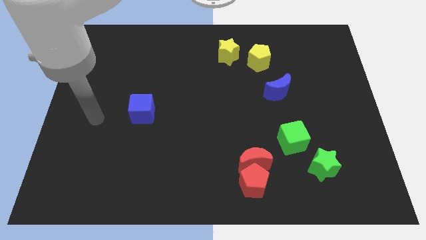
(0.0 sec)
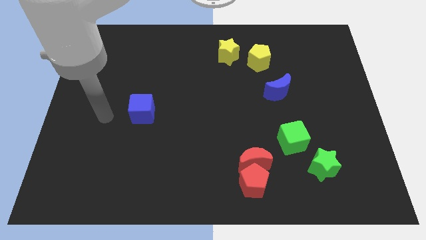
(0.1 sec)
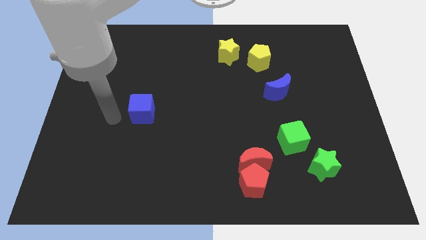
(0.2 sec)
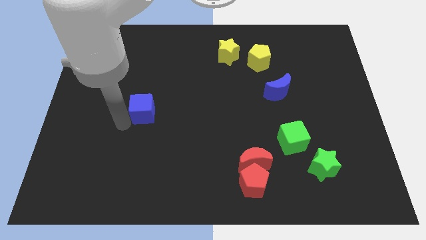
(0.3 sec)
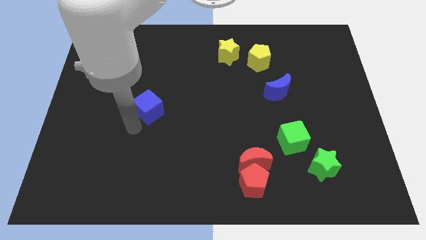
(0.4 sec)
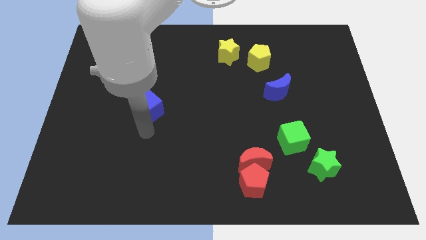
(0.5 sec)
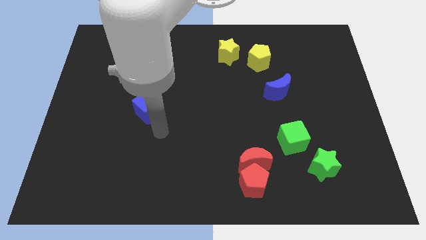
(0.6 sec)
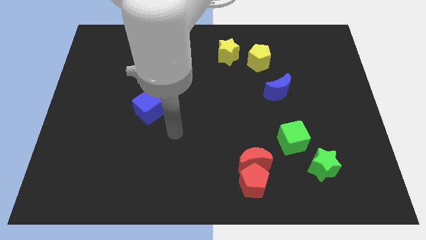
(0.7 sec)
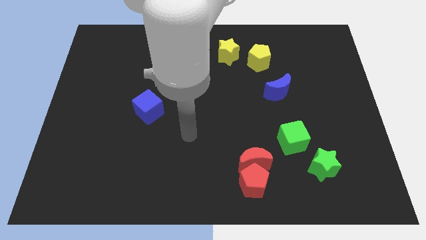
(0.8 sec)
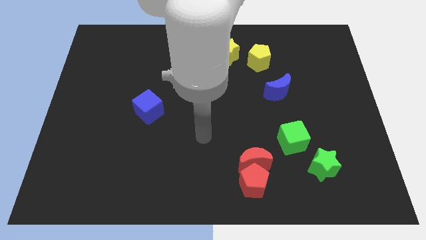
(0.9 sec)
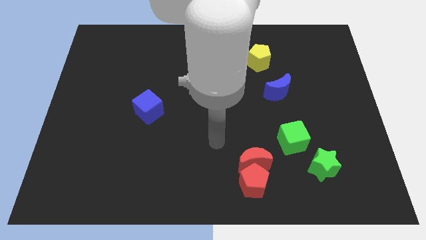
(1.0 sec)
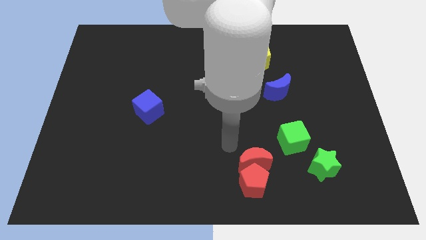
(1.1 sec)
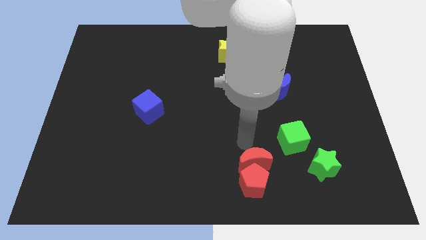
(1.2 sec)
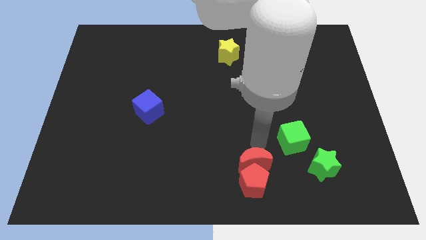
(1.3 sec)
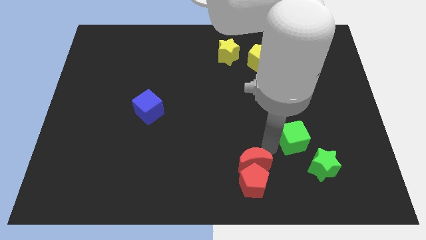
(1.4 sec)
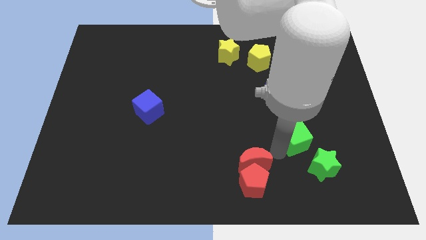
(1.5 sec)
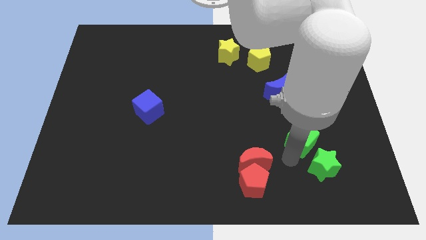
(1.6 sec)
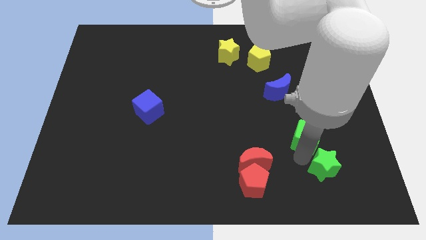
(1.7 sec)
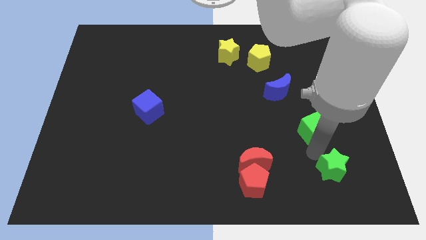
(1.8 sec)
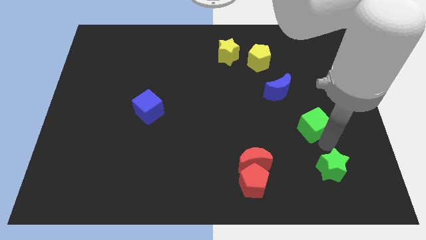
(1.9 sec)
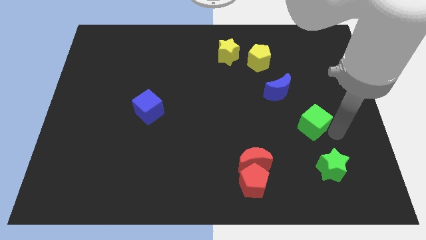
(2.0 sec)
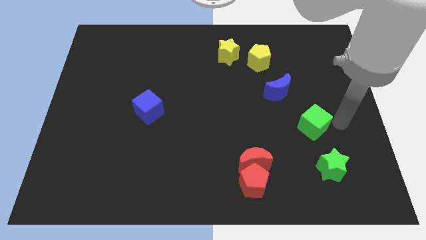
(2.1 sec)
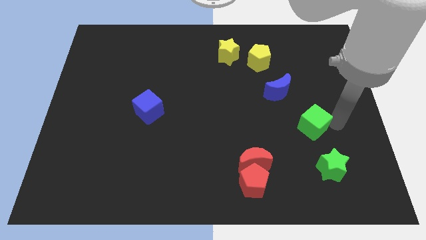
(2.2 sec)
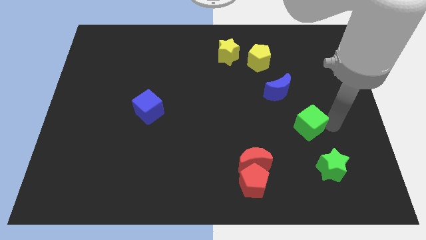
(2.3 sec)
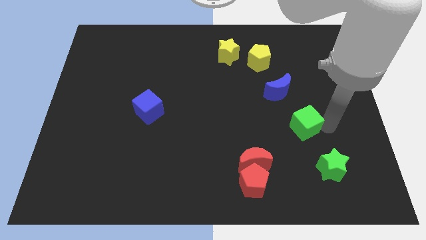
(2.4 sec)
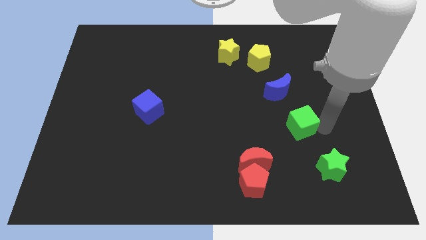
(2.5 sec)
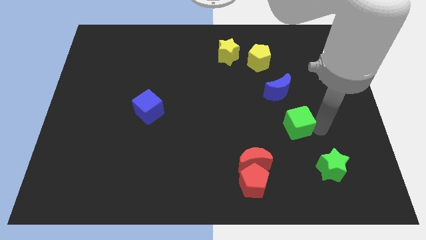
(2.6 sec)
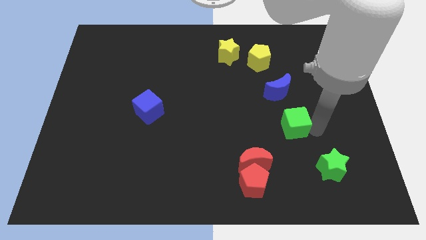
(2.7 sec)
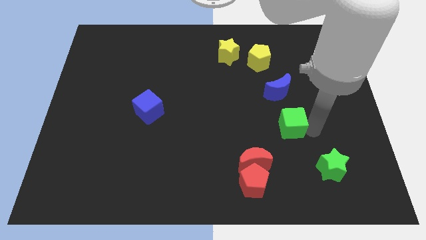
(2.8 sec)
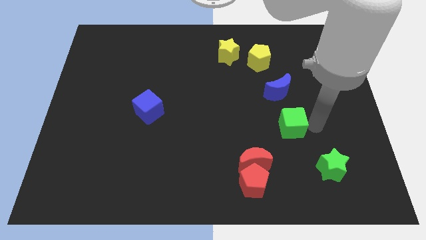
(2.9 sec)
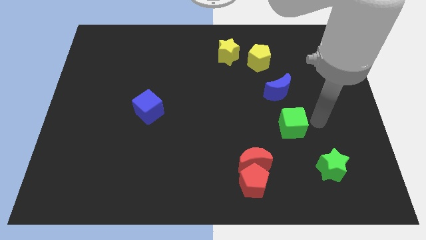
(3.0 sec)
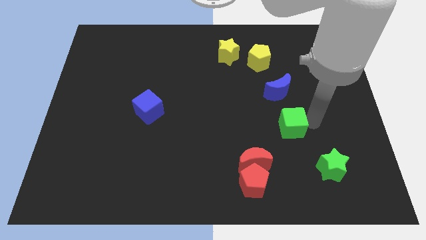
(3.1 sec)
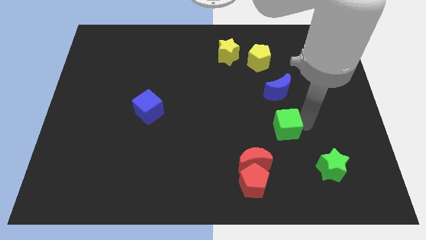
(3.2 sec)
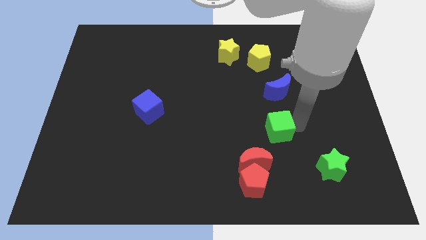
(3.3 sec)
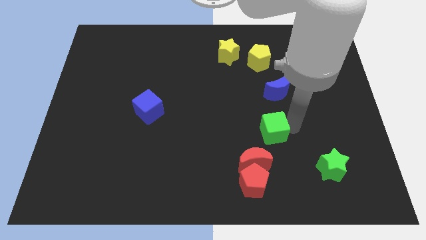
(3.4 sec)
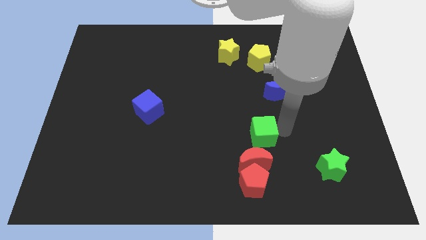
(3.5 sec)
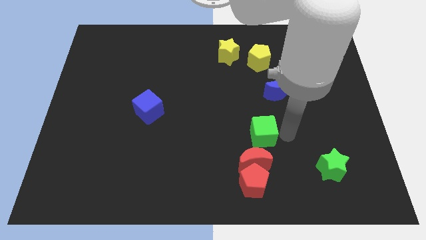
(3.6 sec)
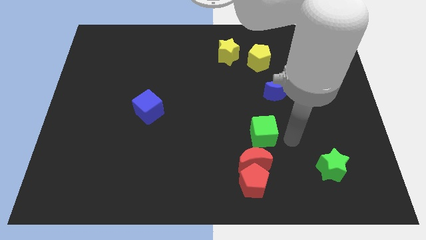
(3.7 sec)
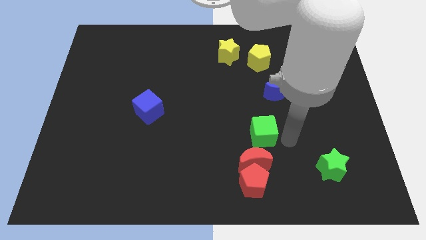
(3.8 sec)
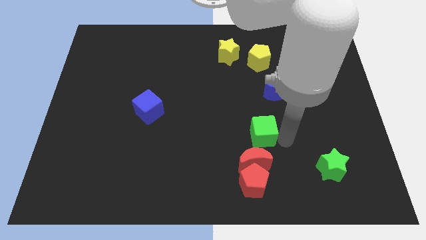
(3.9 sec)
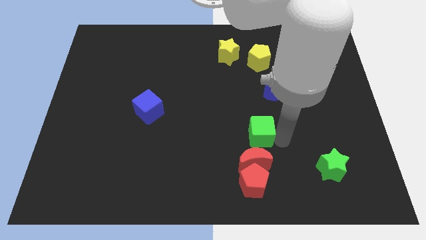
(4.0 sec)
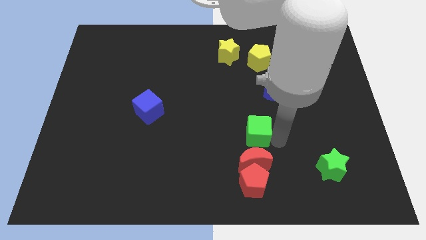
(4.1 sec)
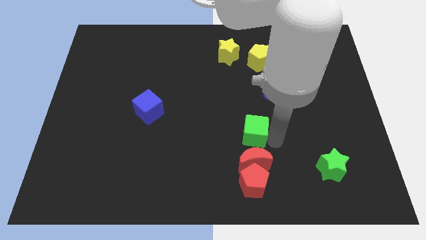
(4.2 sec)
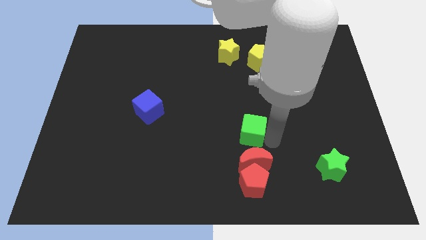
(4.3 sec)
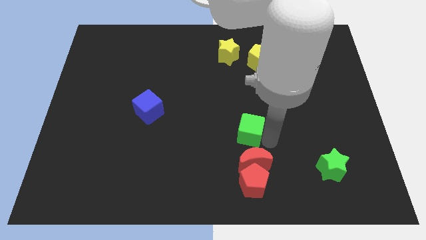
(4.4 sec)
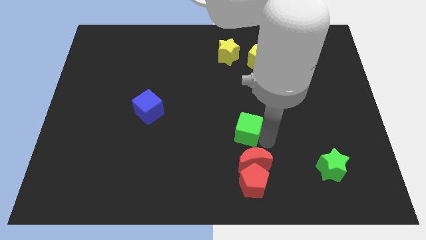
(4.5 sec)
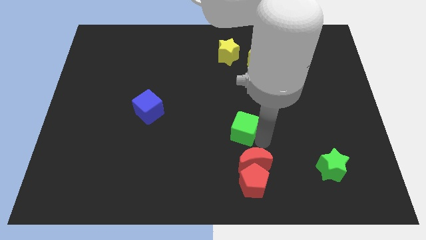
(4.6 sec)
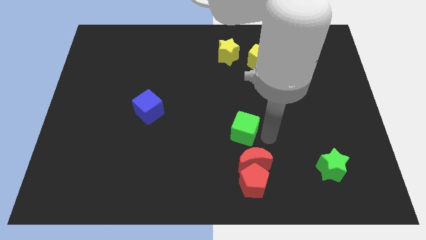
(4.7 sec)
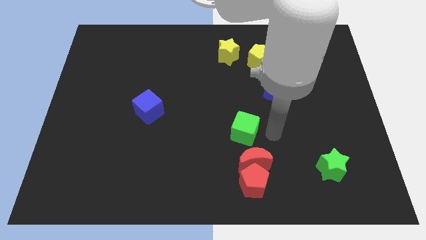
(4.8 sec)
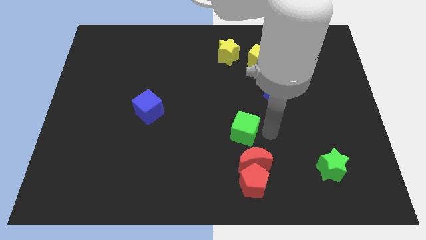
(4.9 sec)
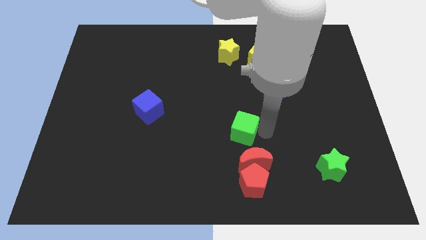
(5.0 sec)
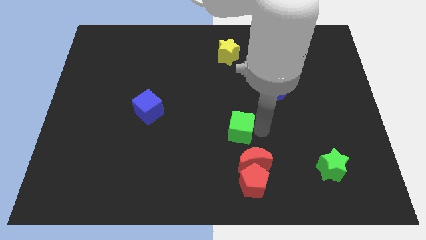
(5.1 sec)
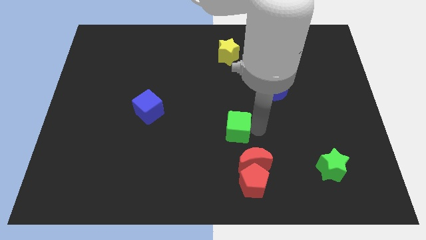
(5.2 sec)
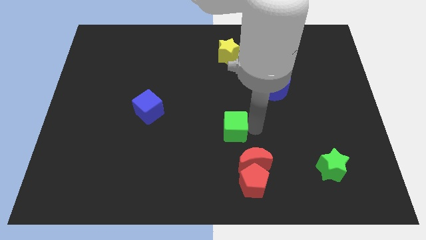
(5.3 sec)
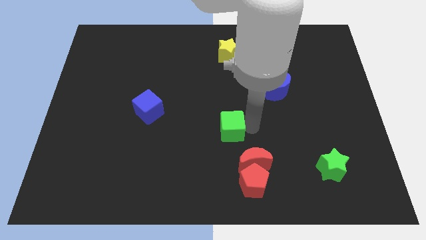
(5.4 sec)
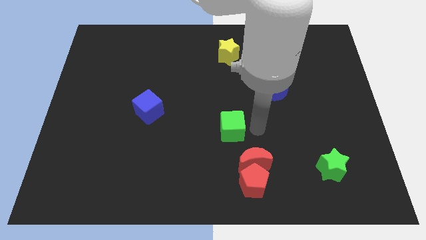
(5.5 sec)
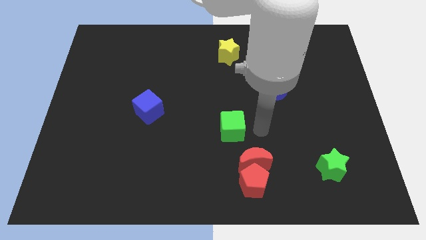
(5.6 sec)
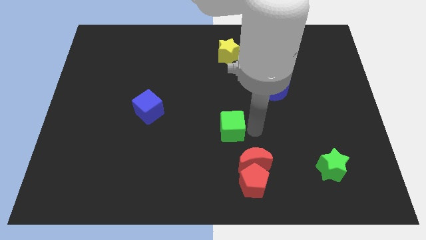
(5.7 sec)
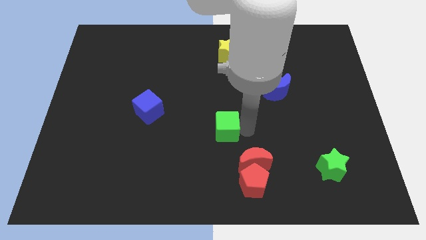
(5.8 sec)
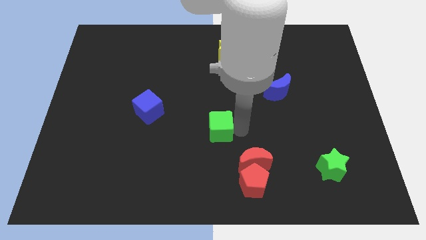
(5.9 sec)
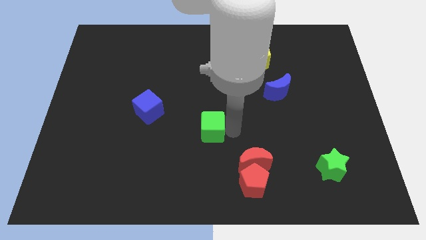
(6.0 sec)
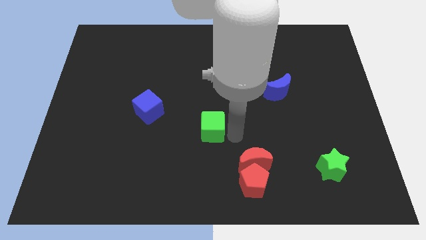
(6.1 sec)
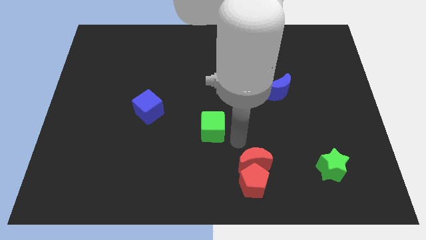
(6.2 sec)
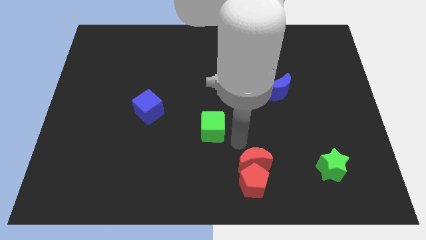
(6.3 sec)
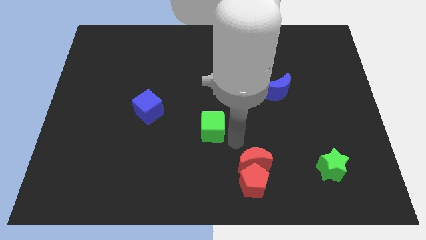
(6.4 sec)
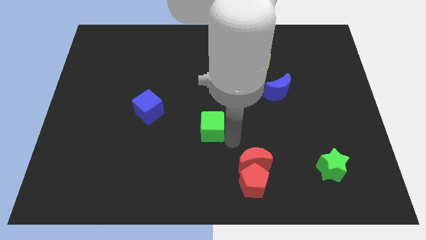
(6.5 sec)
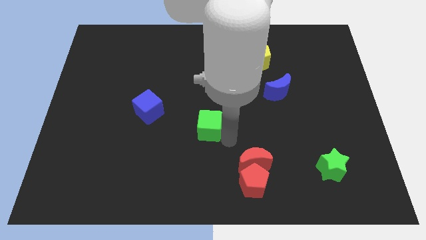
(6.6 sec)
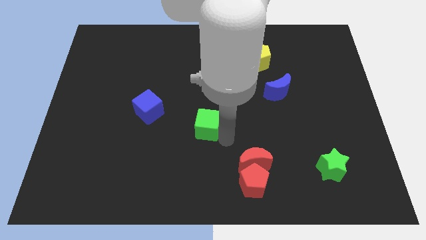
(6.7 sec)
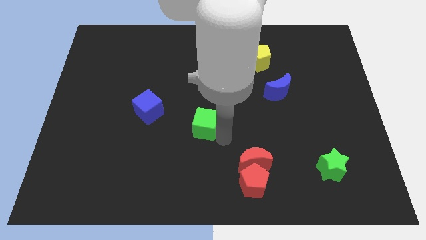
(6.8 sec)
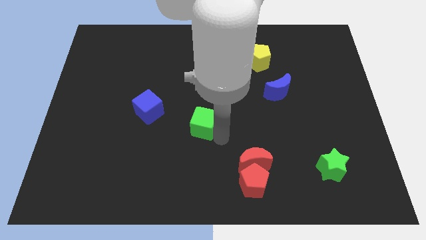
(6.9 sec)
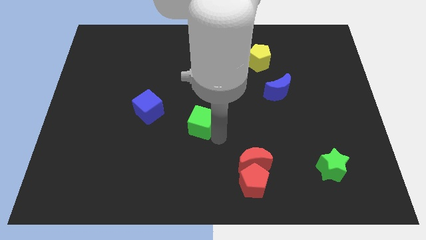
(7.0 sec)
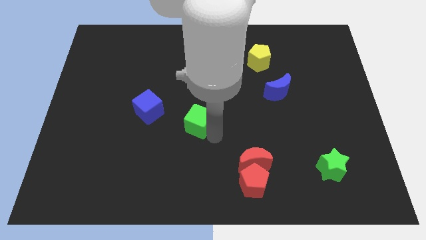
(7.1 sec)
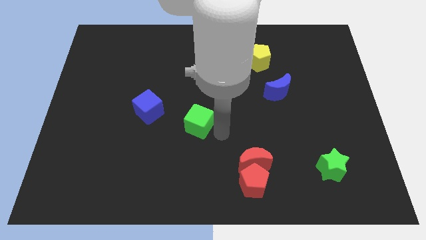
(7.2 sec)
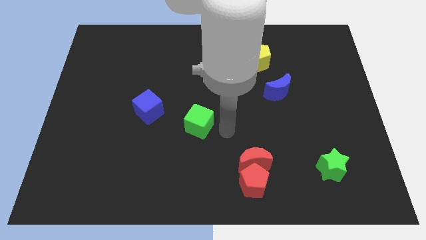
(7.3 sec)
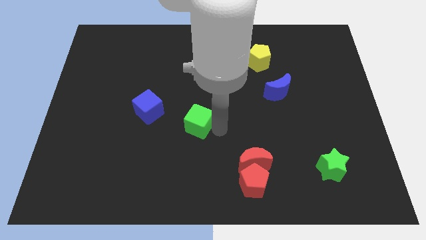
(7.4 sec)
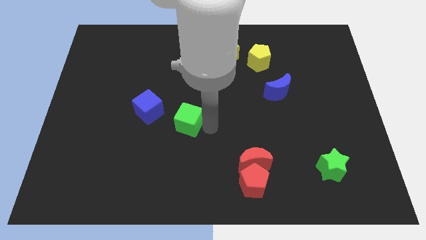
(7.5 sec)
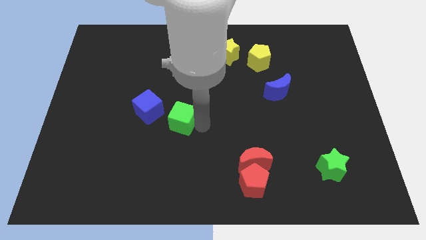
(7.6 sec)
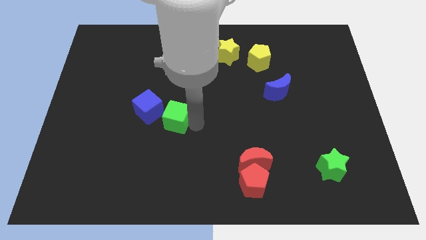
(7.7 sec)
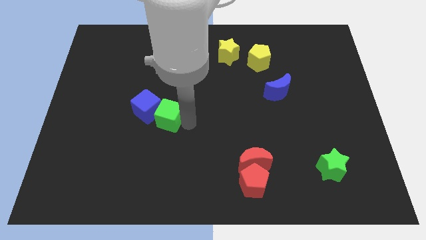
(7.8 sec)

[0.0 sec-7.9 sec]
push the green cube towards the blue cube
